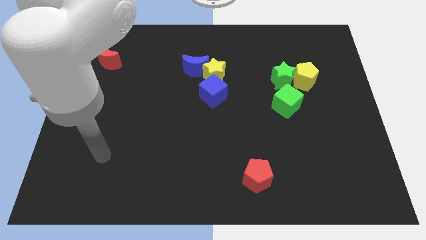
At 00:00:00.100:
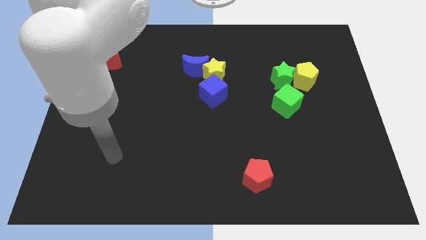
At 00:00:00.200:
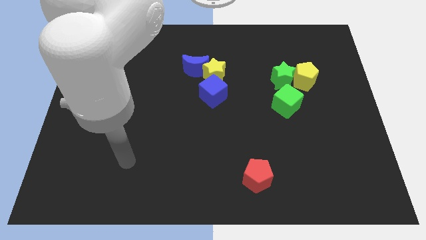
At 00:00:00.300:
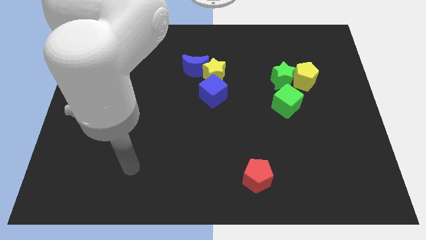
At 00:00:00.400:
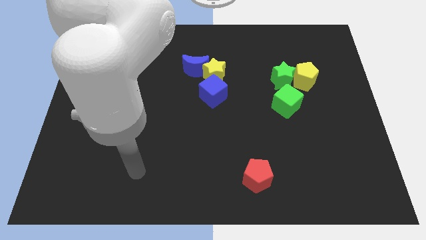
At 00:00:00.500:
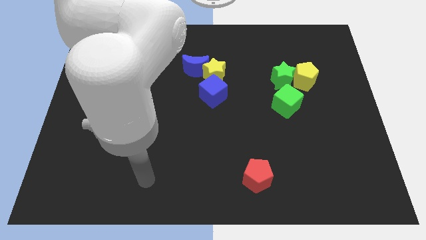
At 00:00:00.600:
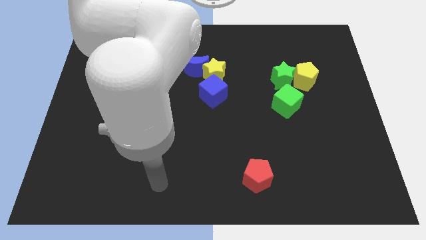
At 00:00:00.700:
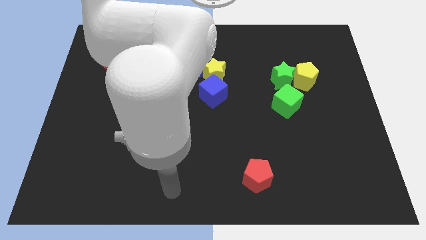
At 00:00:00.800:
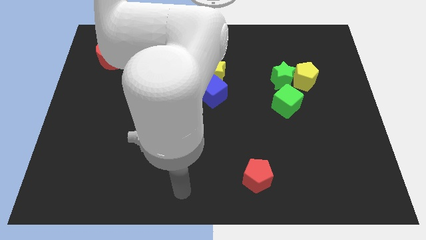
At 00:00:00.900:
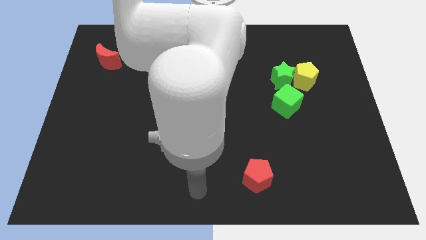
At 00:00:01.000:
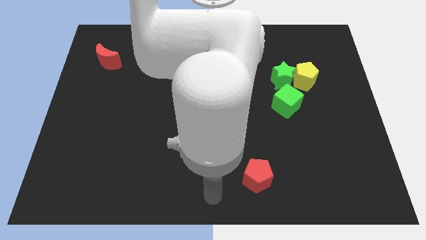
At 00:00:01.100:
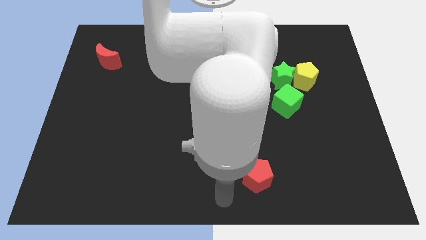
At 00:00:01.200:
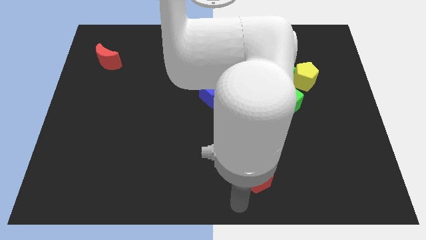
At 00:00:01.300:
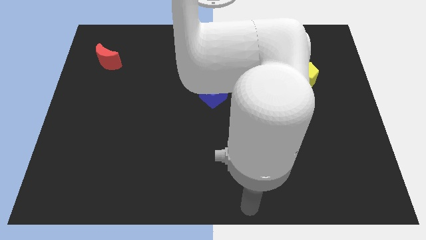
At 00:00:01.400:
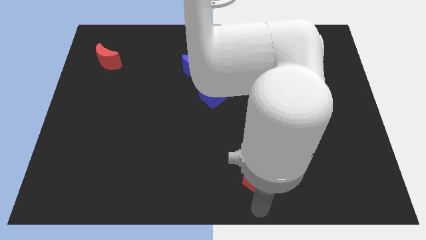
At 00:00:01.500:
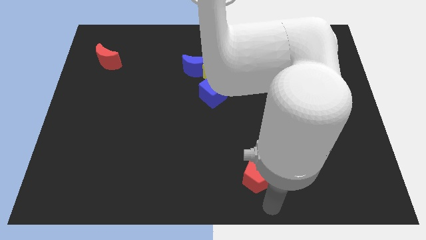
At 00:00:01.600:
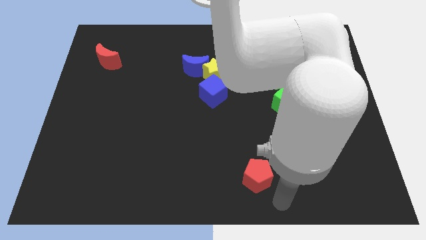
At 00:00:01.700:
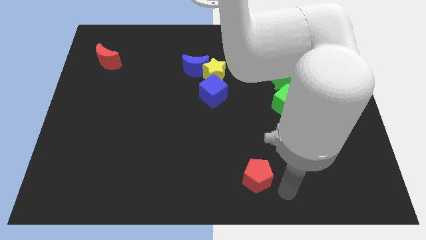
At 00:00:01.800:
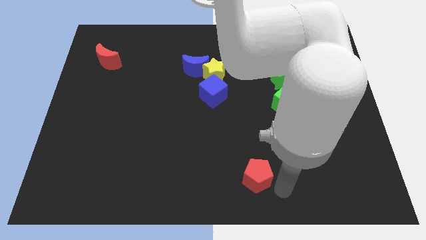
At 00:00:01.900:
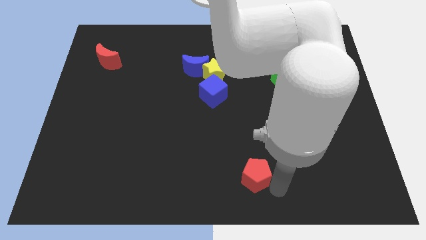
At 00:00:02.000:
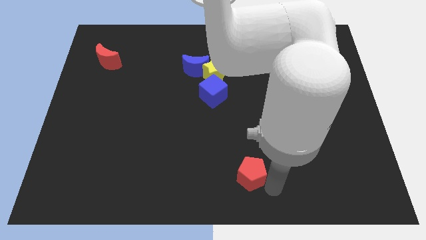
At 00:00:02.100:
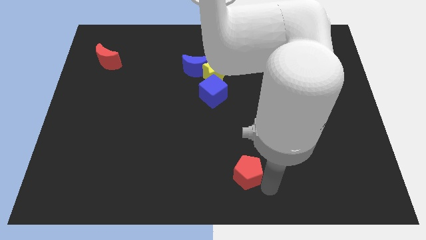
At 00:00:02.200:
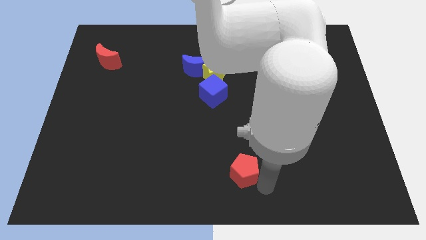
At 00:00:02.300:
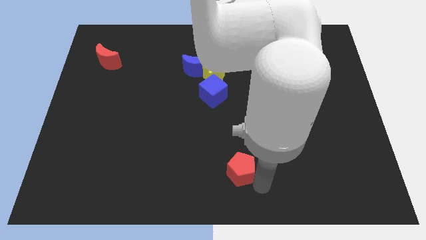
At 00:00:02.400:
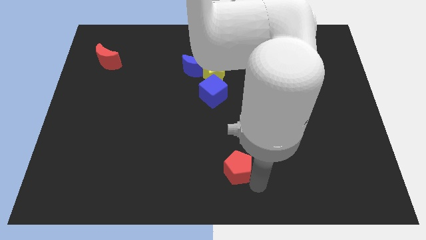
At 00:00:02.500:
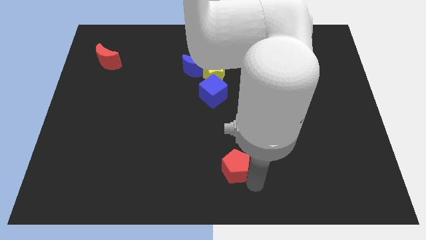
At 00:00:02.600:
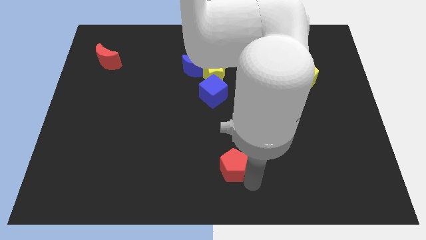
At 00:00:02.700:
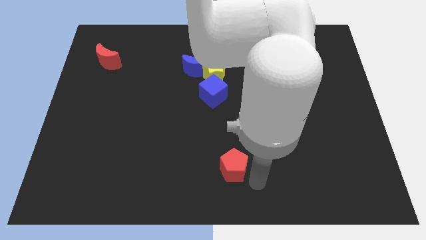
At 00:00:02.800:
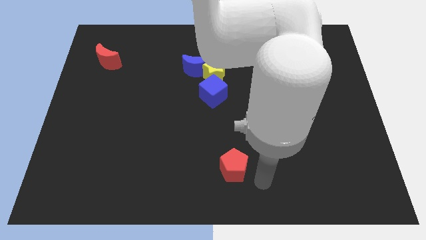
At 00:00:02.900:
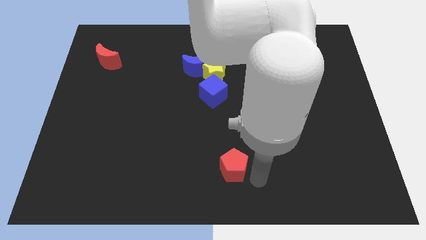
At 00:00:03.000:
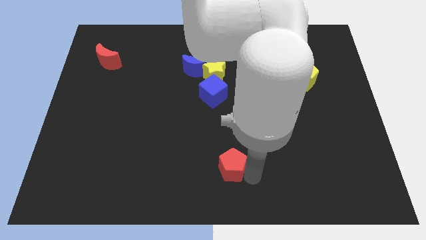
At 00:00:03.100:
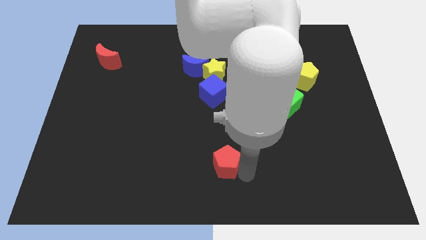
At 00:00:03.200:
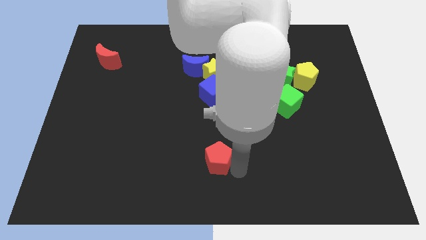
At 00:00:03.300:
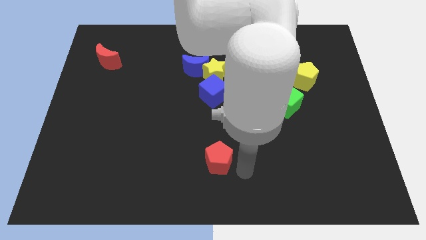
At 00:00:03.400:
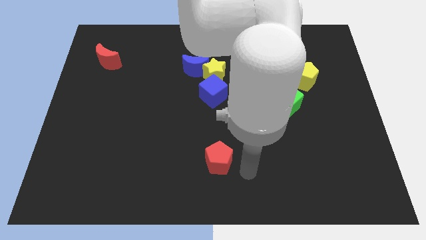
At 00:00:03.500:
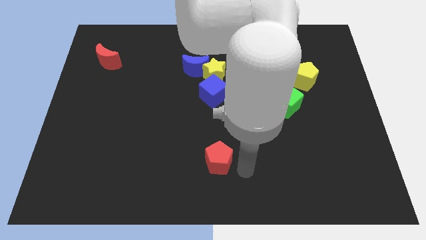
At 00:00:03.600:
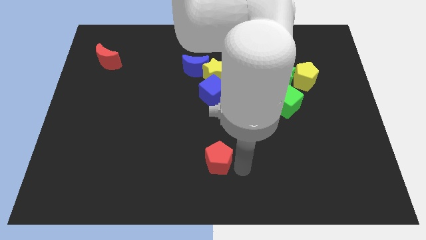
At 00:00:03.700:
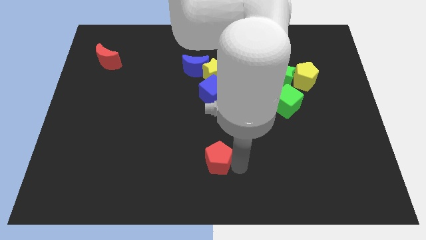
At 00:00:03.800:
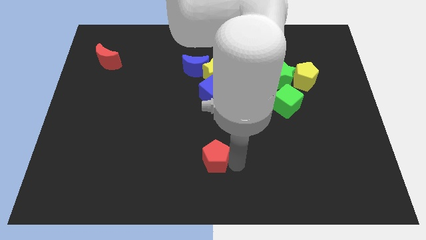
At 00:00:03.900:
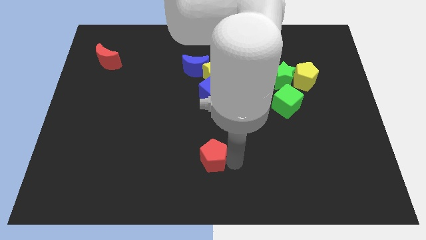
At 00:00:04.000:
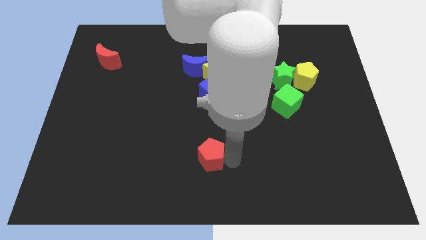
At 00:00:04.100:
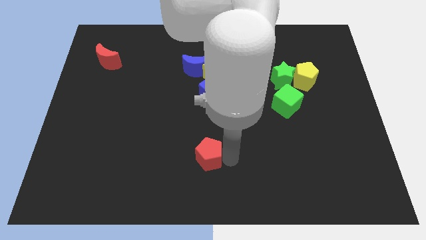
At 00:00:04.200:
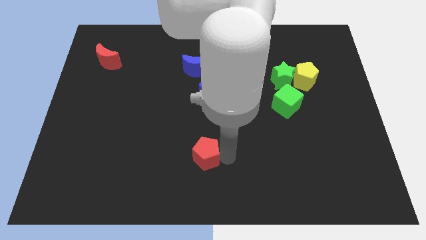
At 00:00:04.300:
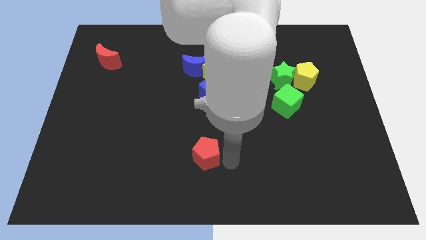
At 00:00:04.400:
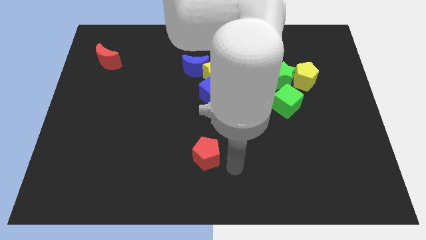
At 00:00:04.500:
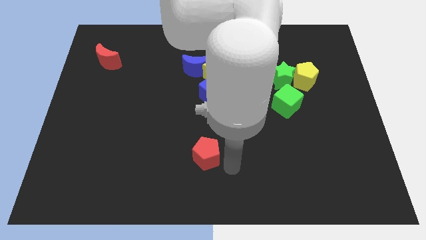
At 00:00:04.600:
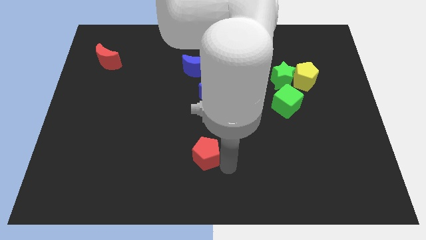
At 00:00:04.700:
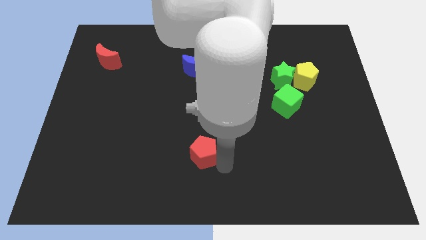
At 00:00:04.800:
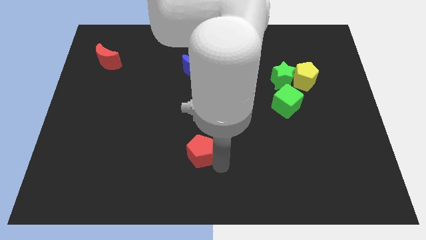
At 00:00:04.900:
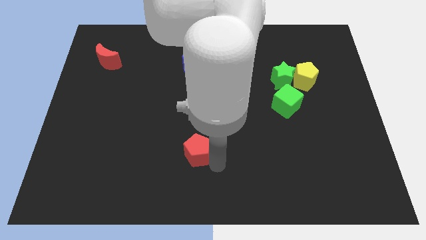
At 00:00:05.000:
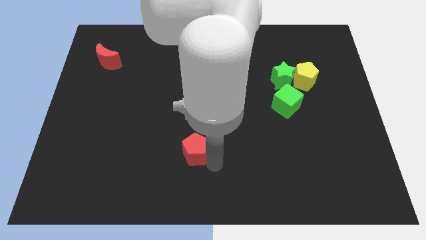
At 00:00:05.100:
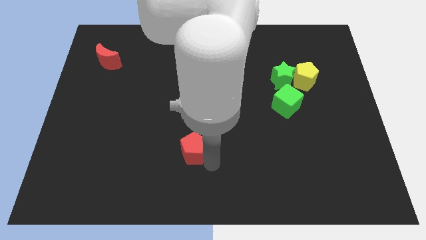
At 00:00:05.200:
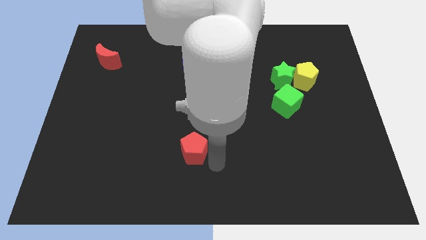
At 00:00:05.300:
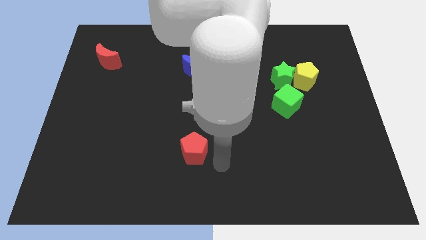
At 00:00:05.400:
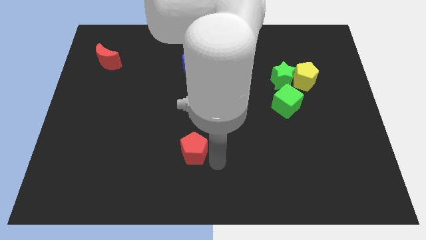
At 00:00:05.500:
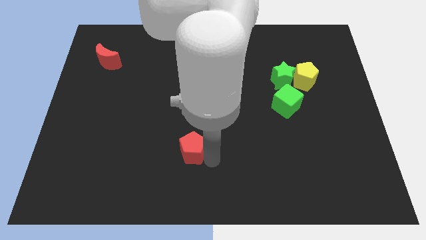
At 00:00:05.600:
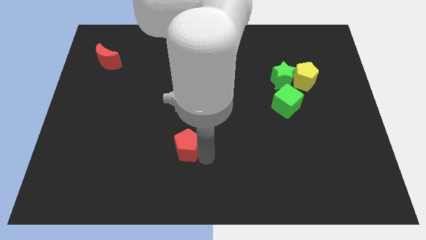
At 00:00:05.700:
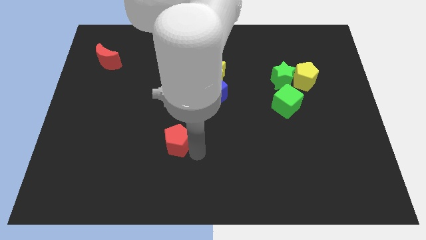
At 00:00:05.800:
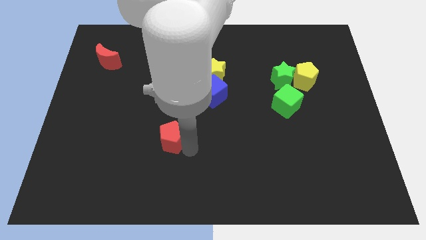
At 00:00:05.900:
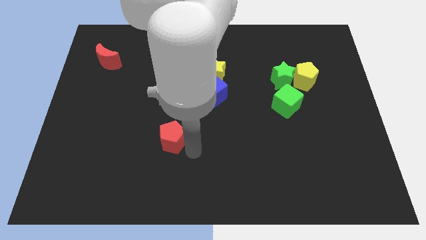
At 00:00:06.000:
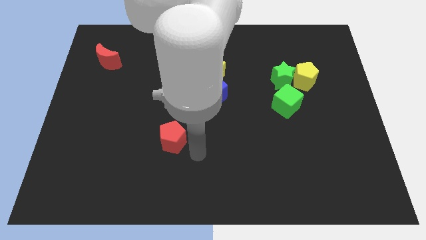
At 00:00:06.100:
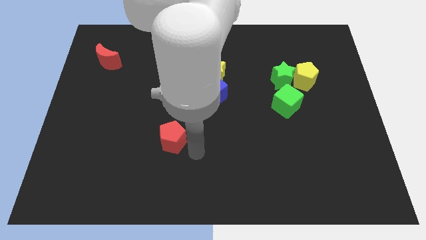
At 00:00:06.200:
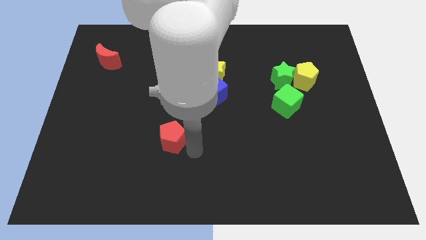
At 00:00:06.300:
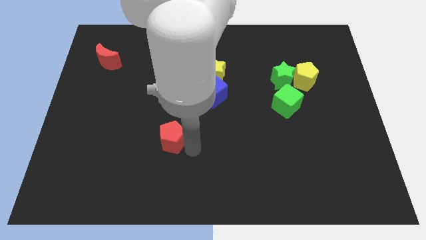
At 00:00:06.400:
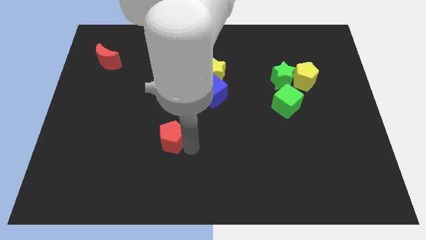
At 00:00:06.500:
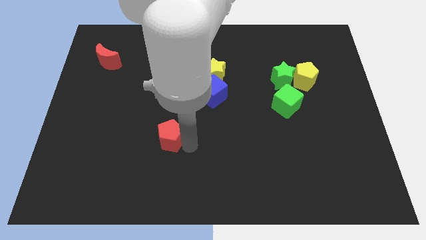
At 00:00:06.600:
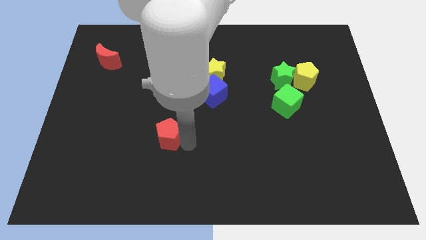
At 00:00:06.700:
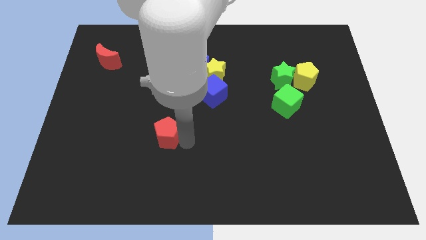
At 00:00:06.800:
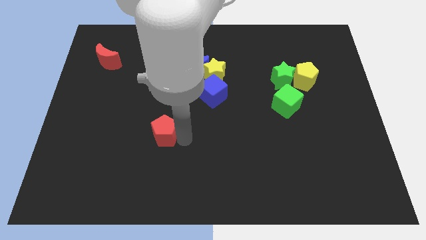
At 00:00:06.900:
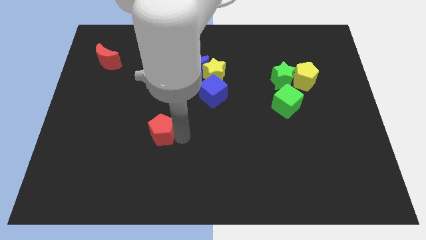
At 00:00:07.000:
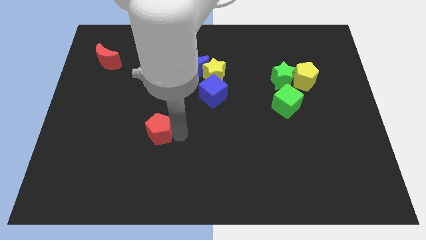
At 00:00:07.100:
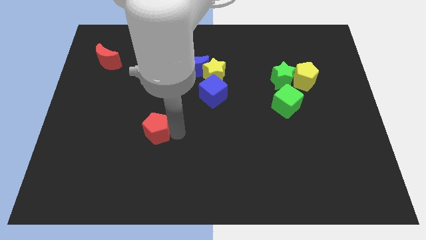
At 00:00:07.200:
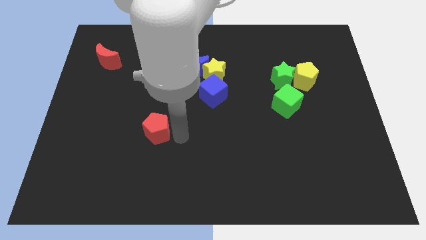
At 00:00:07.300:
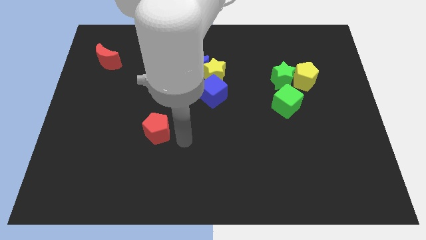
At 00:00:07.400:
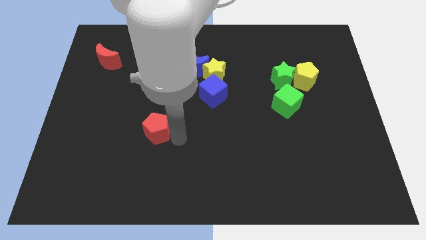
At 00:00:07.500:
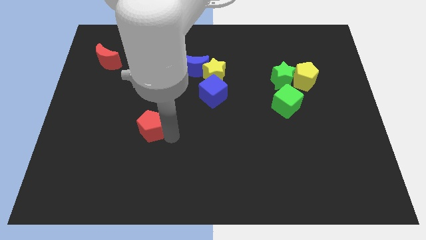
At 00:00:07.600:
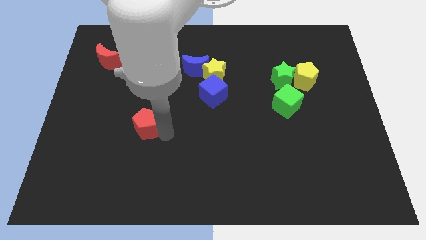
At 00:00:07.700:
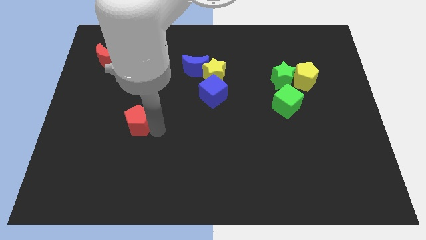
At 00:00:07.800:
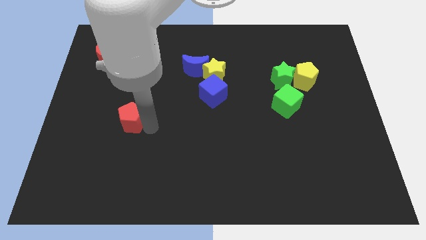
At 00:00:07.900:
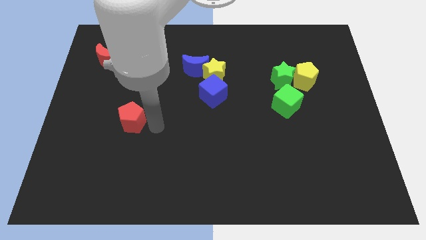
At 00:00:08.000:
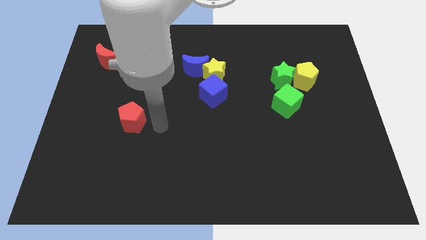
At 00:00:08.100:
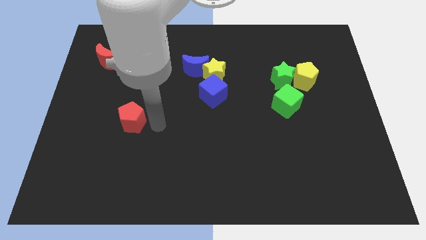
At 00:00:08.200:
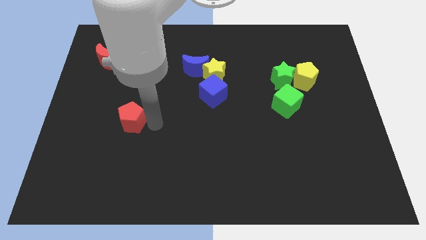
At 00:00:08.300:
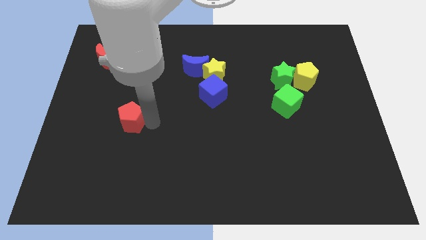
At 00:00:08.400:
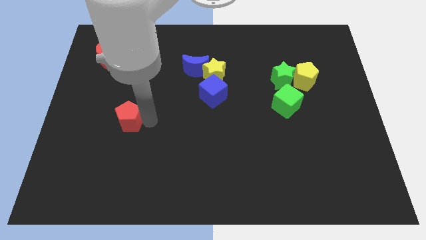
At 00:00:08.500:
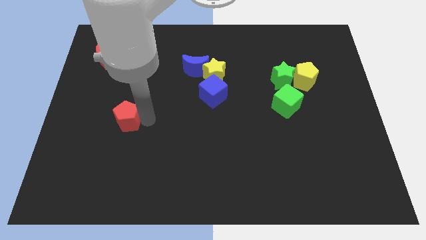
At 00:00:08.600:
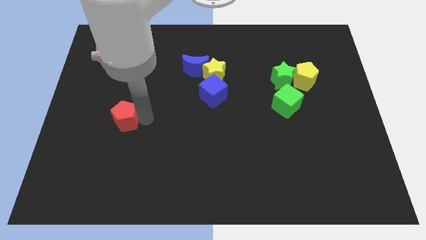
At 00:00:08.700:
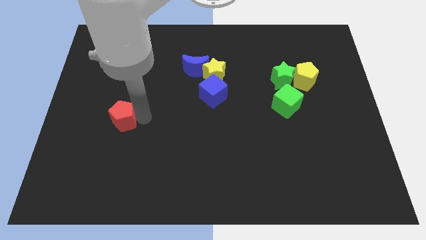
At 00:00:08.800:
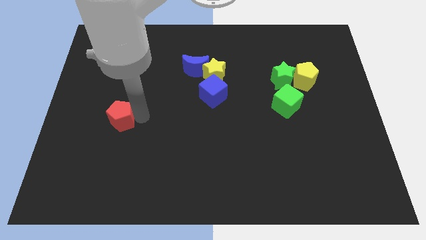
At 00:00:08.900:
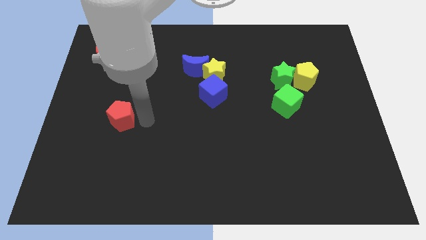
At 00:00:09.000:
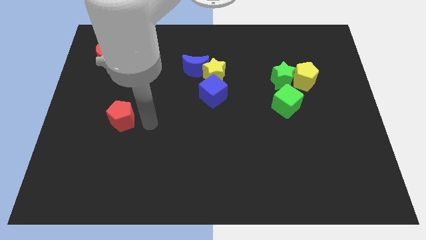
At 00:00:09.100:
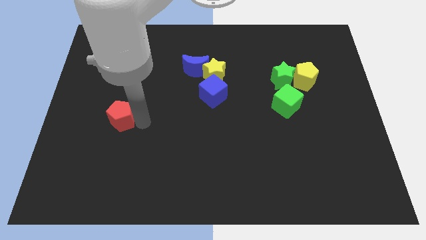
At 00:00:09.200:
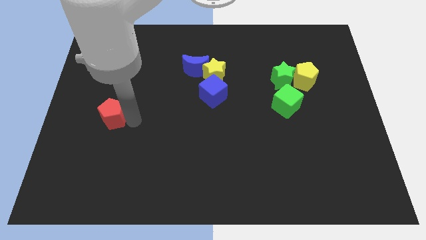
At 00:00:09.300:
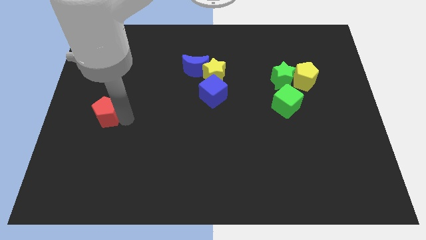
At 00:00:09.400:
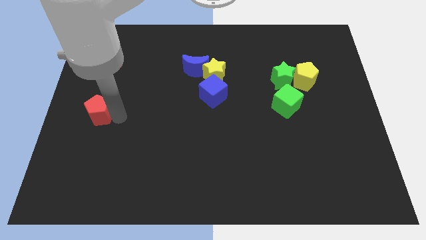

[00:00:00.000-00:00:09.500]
move the red pentagon to the left side
